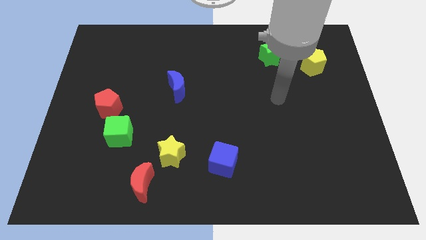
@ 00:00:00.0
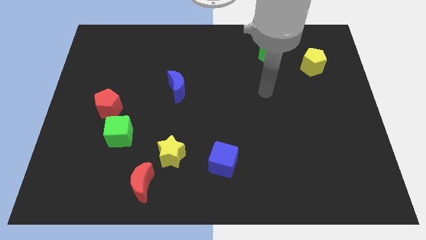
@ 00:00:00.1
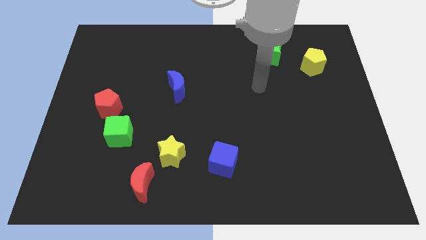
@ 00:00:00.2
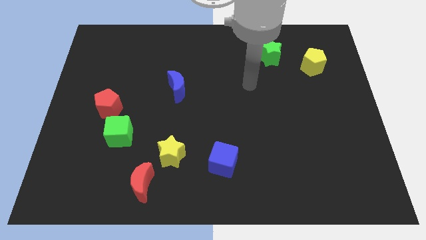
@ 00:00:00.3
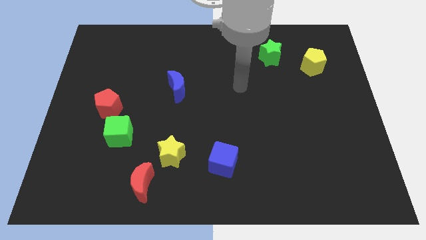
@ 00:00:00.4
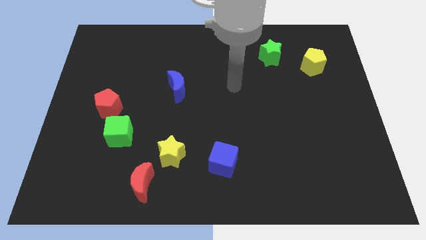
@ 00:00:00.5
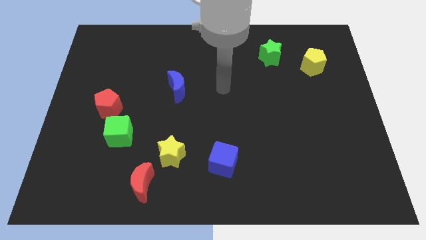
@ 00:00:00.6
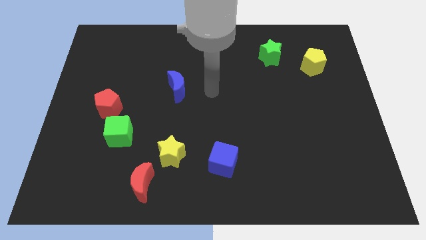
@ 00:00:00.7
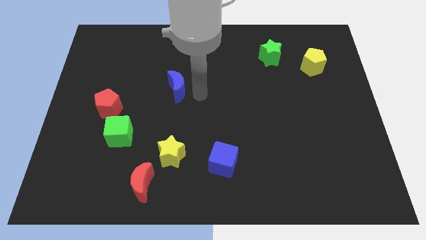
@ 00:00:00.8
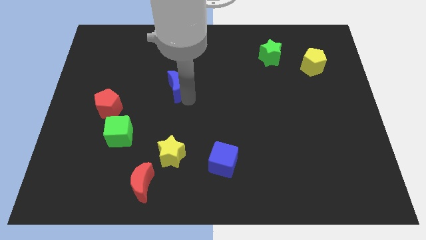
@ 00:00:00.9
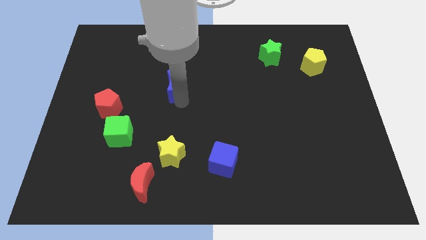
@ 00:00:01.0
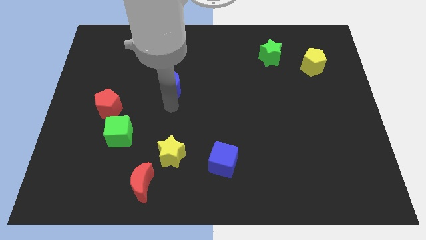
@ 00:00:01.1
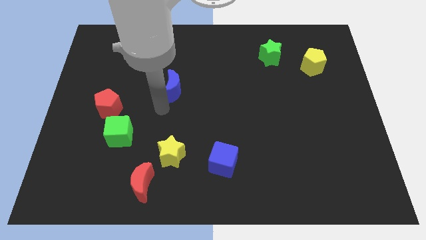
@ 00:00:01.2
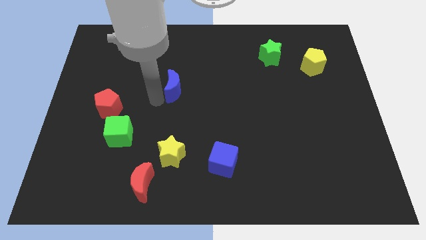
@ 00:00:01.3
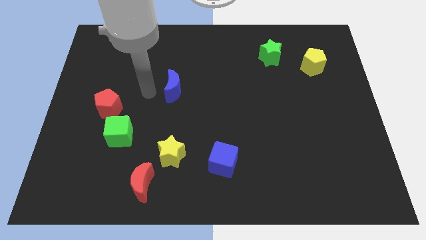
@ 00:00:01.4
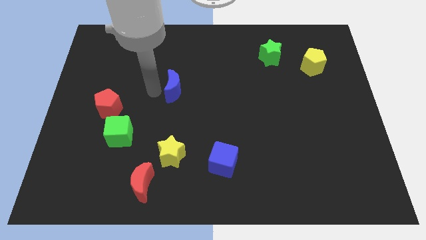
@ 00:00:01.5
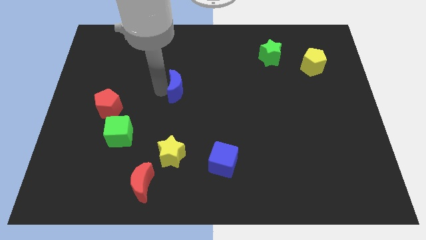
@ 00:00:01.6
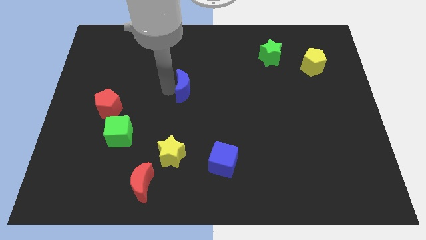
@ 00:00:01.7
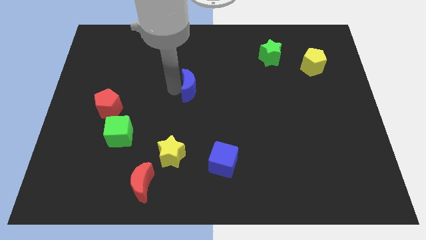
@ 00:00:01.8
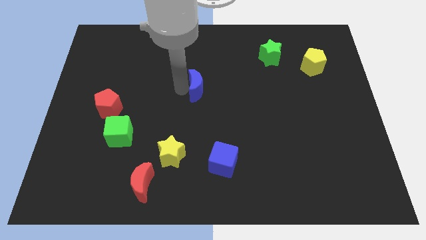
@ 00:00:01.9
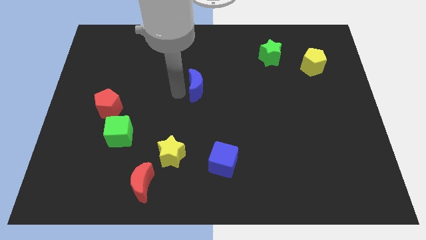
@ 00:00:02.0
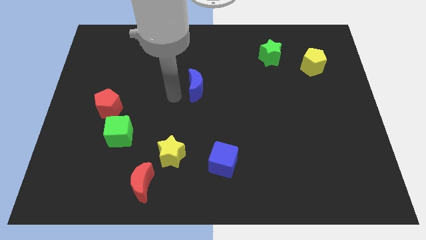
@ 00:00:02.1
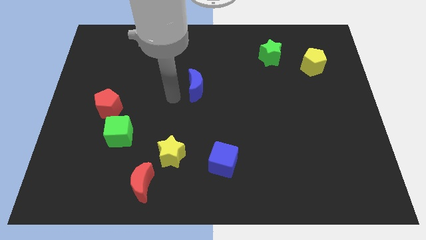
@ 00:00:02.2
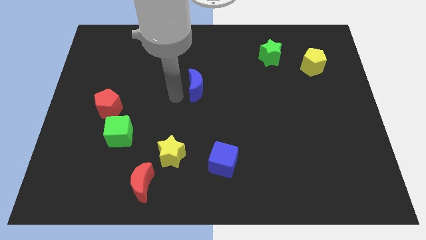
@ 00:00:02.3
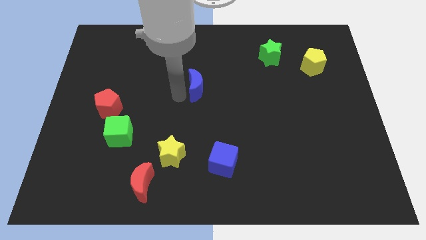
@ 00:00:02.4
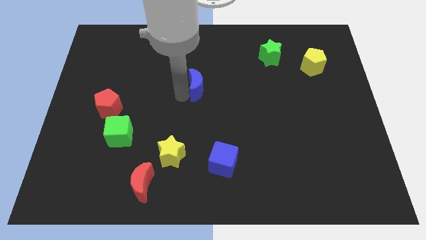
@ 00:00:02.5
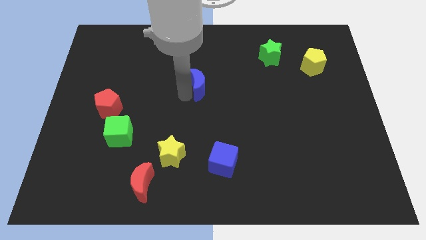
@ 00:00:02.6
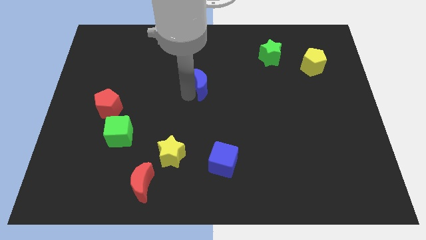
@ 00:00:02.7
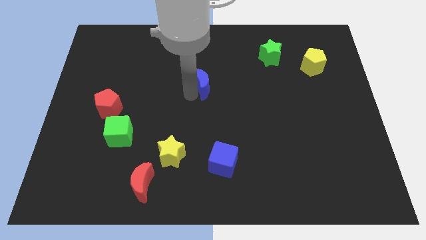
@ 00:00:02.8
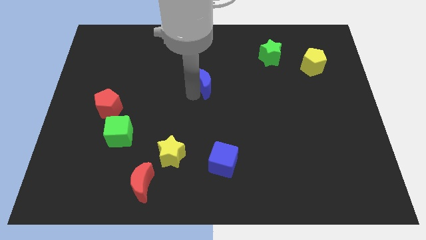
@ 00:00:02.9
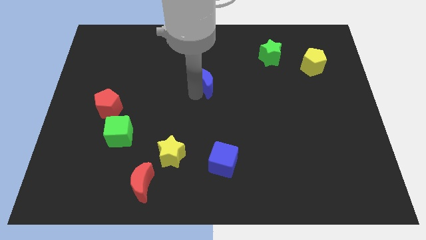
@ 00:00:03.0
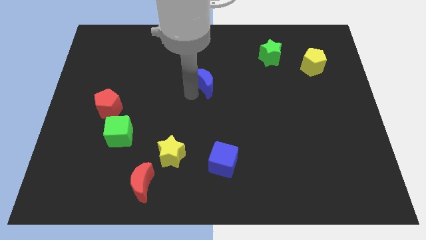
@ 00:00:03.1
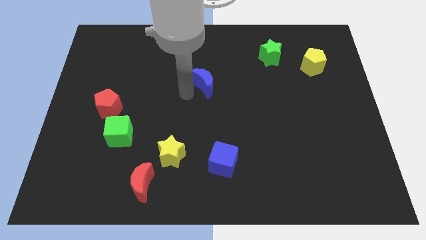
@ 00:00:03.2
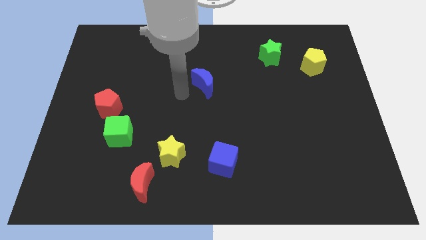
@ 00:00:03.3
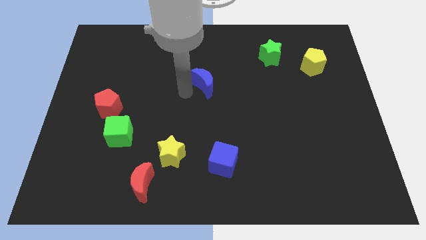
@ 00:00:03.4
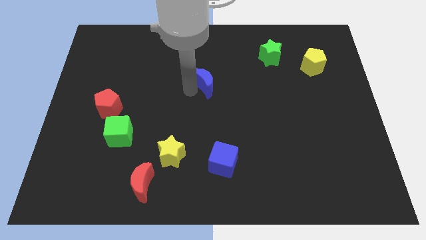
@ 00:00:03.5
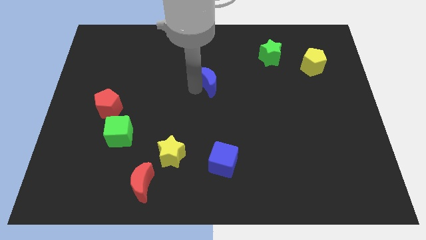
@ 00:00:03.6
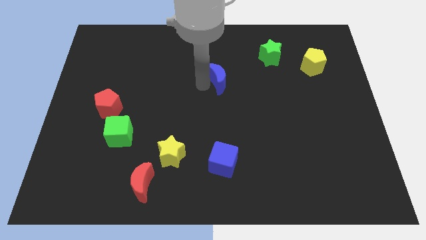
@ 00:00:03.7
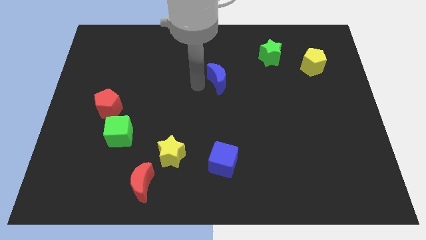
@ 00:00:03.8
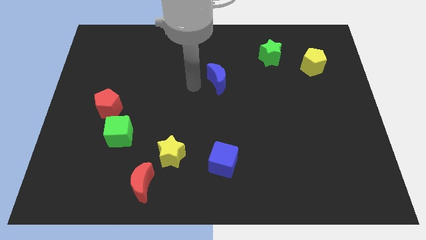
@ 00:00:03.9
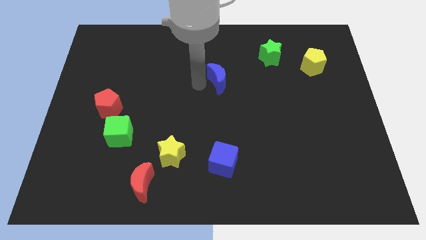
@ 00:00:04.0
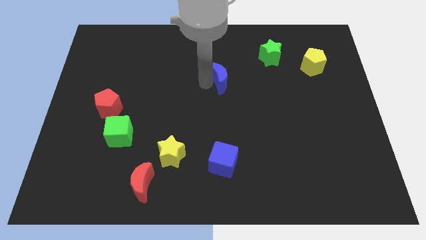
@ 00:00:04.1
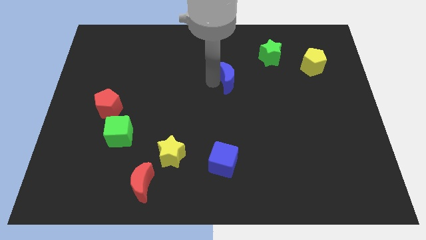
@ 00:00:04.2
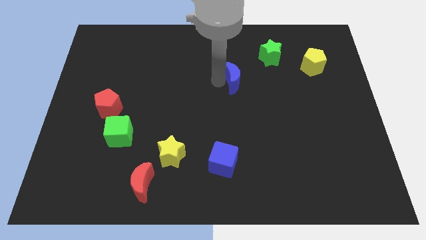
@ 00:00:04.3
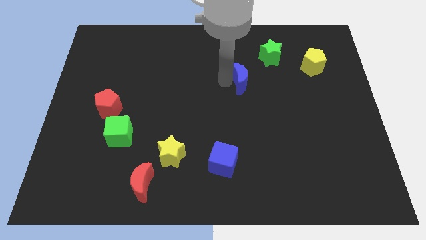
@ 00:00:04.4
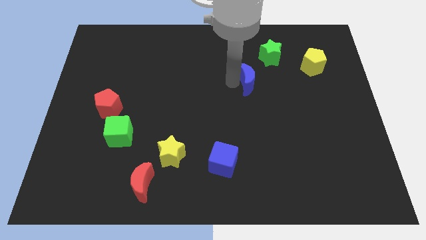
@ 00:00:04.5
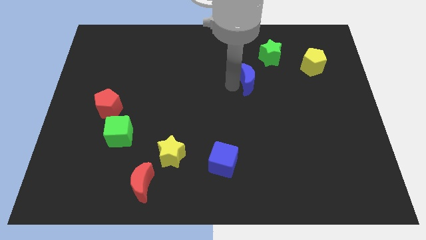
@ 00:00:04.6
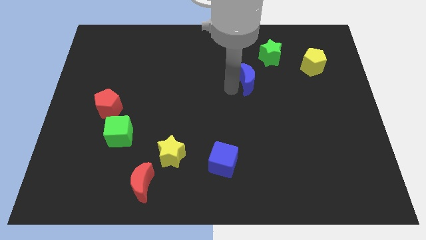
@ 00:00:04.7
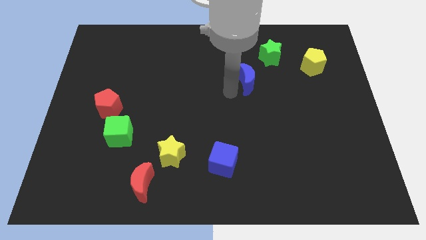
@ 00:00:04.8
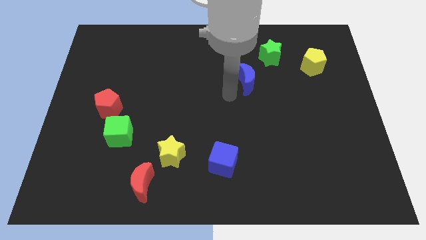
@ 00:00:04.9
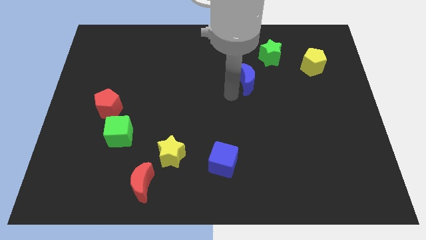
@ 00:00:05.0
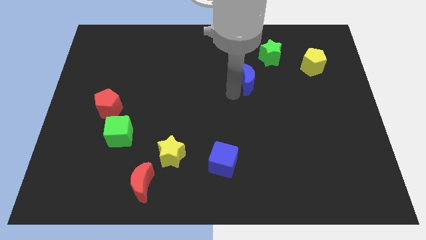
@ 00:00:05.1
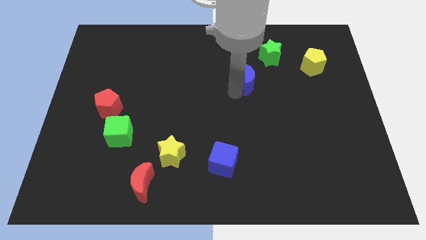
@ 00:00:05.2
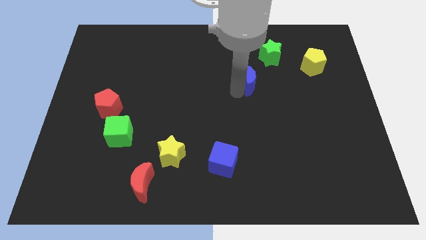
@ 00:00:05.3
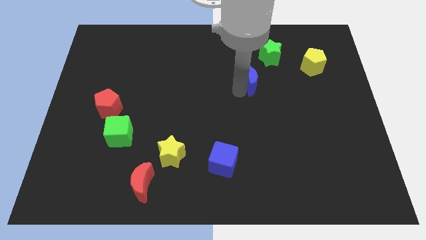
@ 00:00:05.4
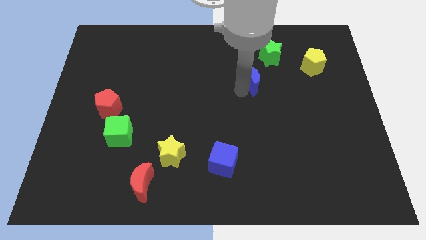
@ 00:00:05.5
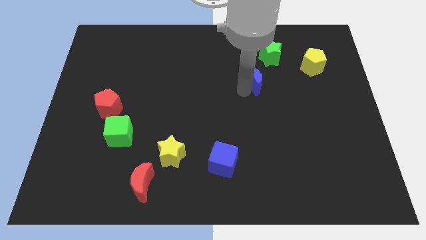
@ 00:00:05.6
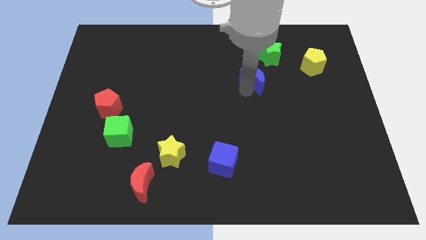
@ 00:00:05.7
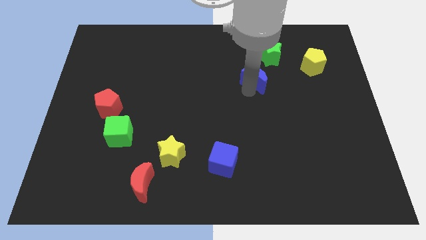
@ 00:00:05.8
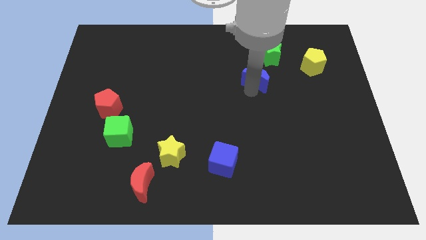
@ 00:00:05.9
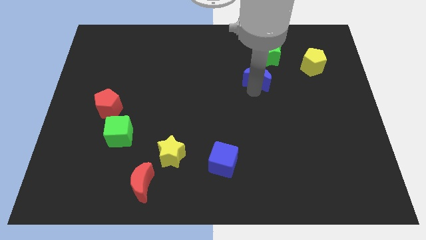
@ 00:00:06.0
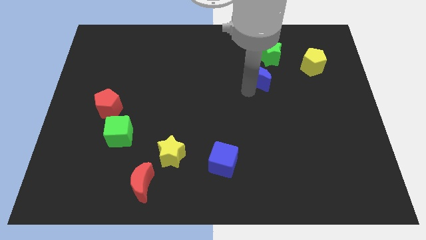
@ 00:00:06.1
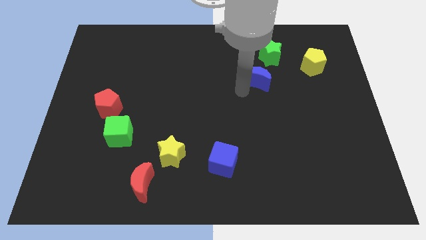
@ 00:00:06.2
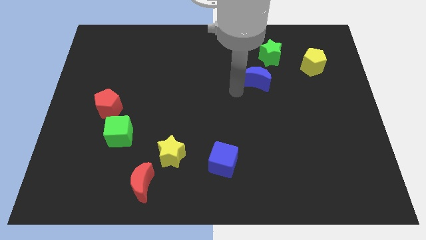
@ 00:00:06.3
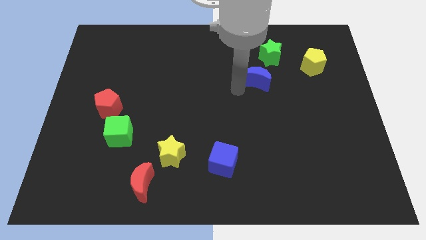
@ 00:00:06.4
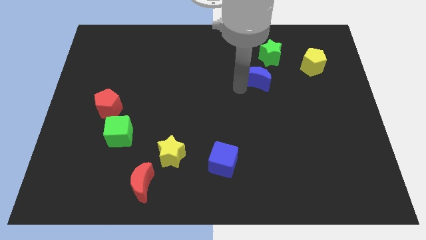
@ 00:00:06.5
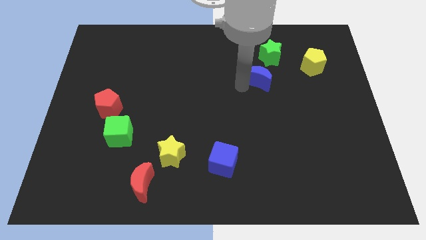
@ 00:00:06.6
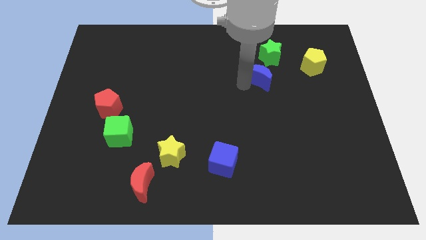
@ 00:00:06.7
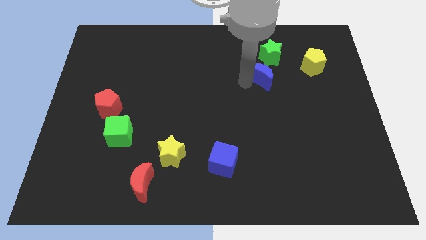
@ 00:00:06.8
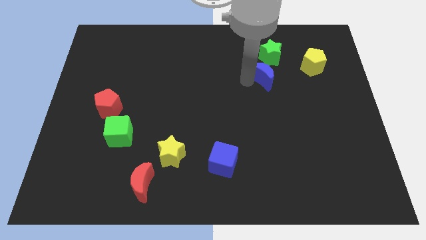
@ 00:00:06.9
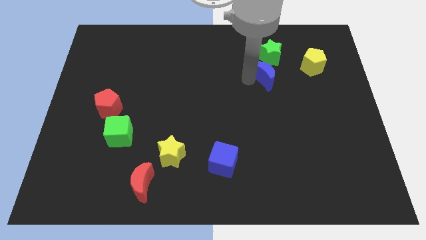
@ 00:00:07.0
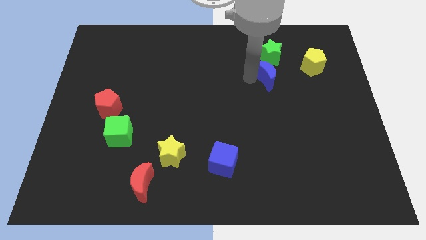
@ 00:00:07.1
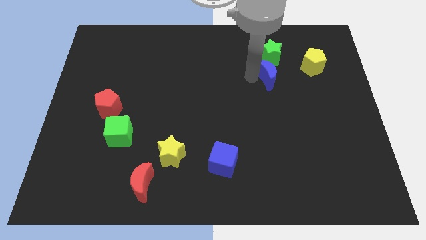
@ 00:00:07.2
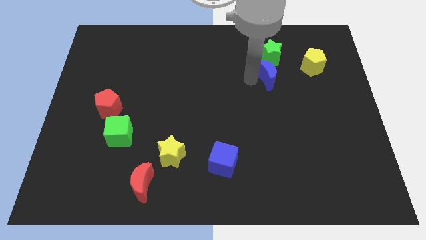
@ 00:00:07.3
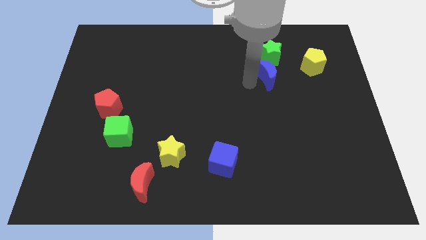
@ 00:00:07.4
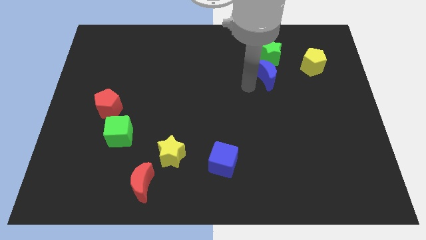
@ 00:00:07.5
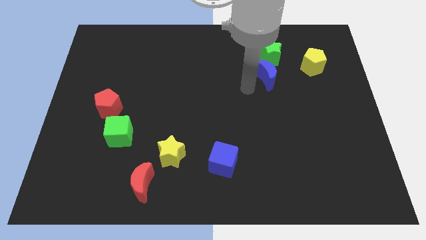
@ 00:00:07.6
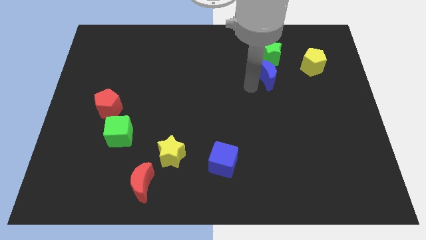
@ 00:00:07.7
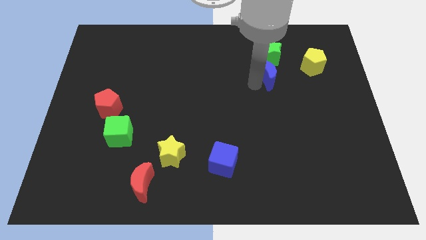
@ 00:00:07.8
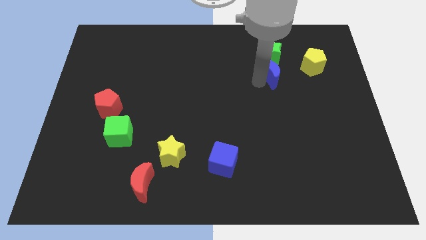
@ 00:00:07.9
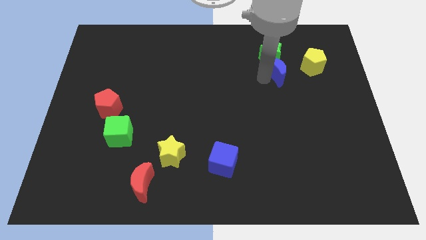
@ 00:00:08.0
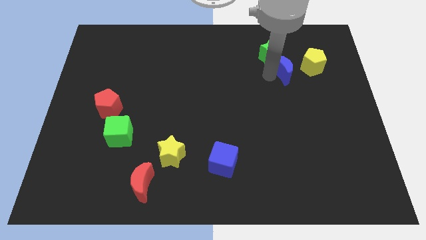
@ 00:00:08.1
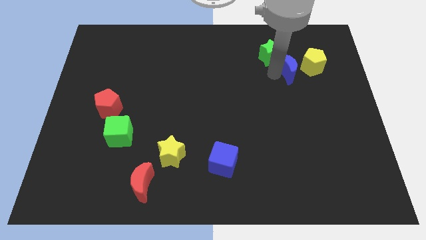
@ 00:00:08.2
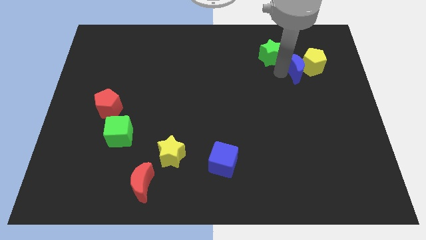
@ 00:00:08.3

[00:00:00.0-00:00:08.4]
slide the blue moon next to the yellow pentagon
